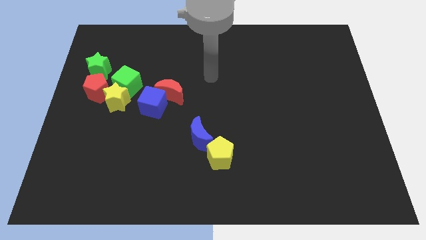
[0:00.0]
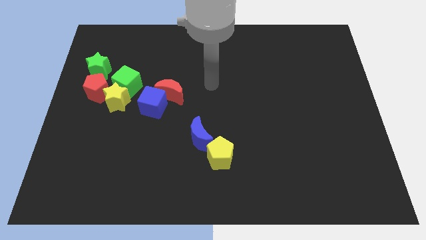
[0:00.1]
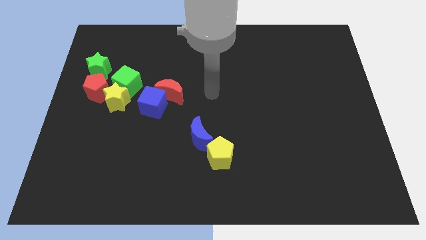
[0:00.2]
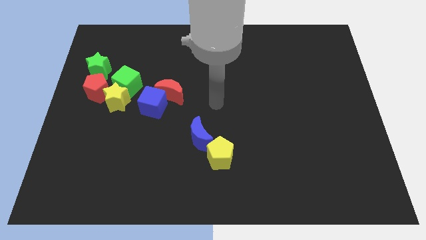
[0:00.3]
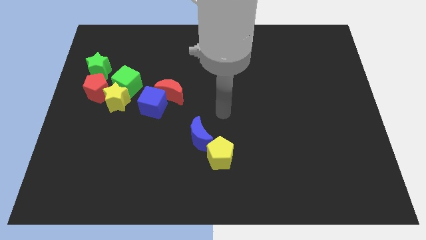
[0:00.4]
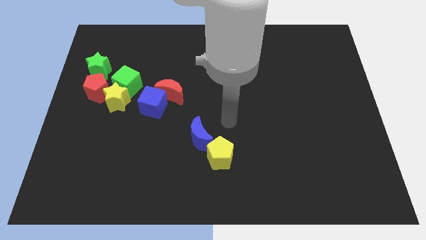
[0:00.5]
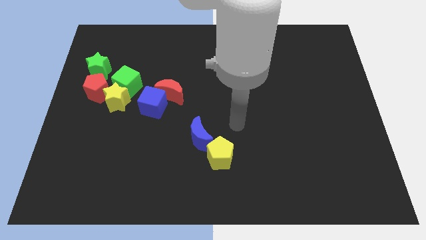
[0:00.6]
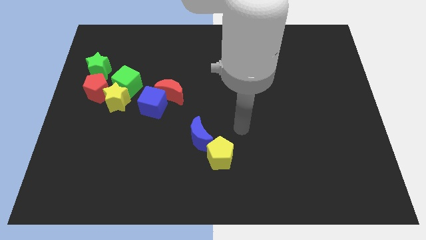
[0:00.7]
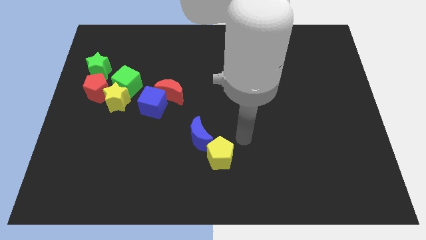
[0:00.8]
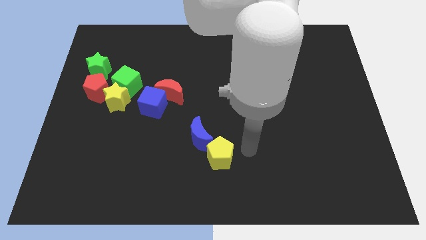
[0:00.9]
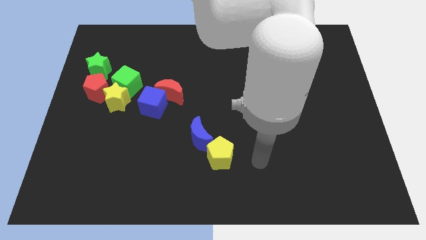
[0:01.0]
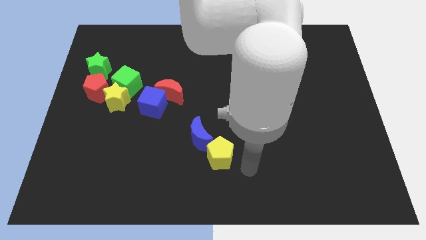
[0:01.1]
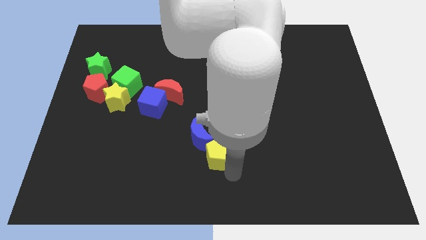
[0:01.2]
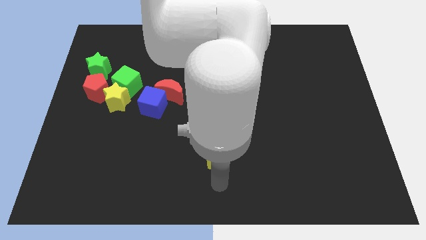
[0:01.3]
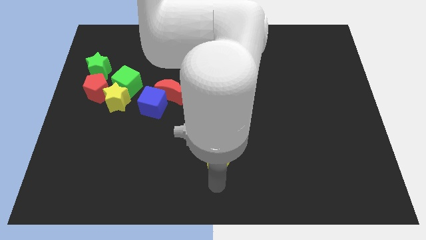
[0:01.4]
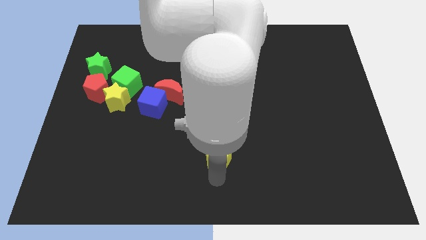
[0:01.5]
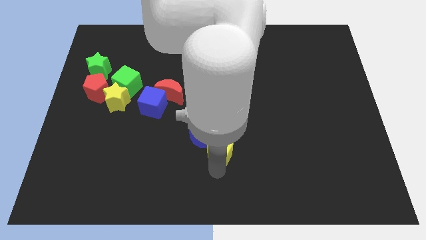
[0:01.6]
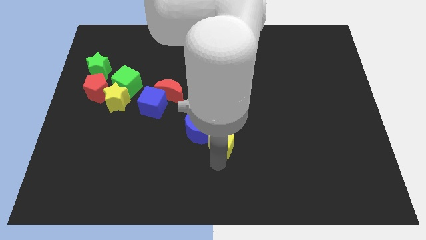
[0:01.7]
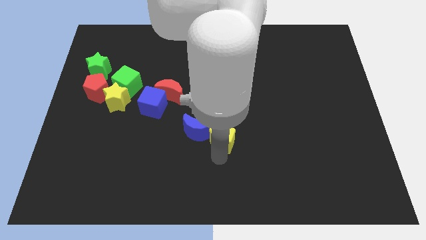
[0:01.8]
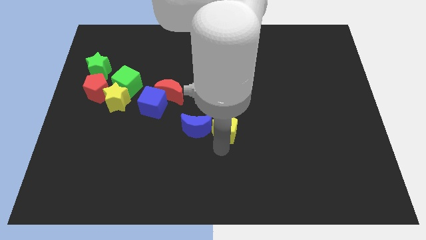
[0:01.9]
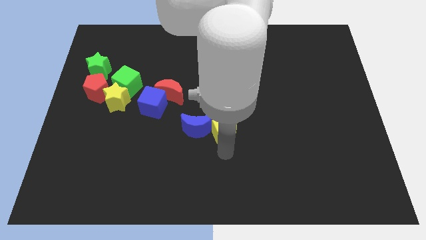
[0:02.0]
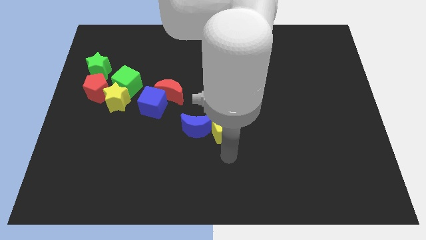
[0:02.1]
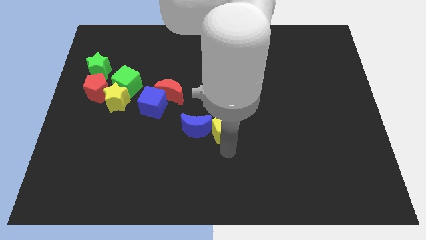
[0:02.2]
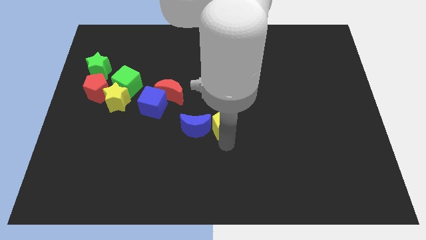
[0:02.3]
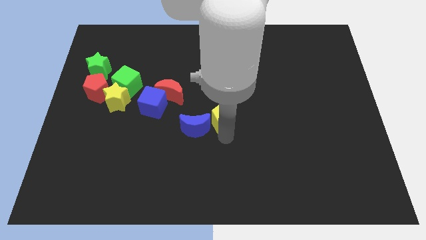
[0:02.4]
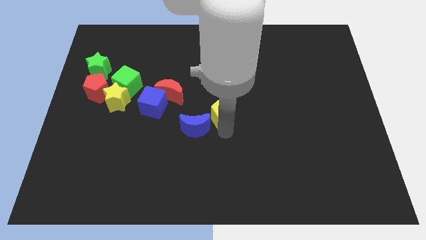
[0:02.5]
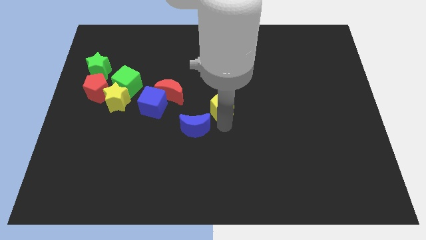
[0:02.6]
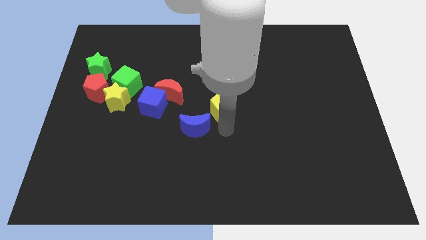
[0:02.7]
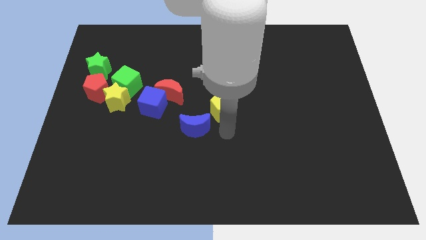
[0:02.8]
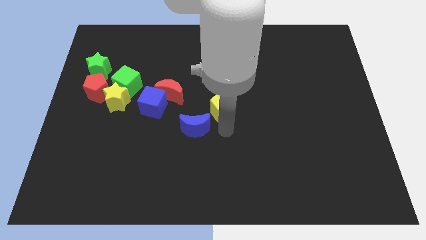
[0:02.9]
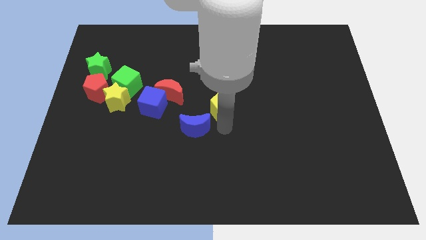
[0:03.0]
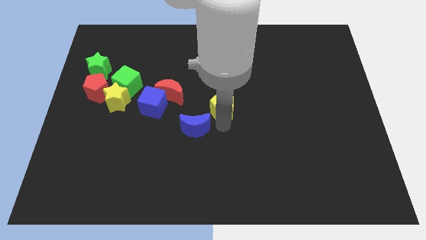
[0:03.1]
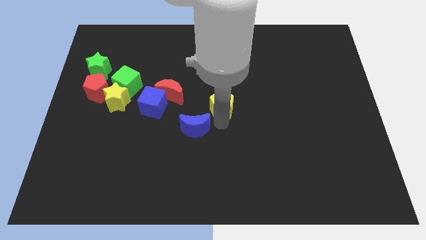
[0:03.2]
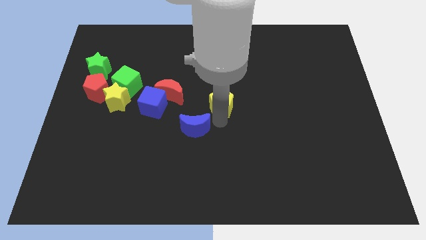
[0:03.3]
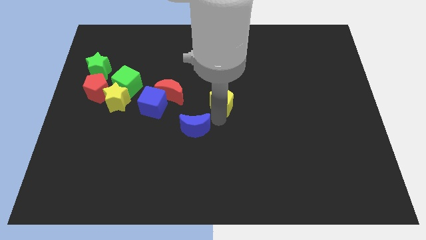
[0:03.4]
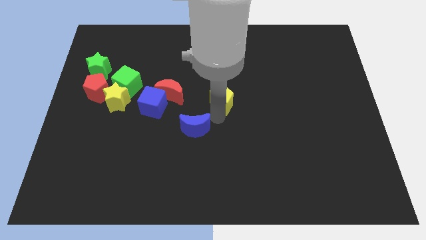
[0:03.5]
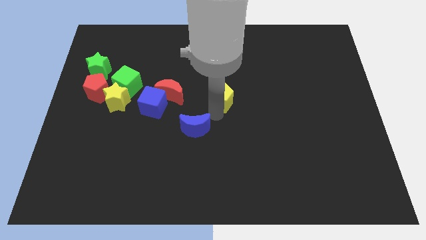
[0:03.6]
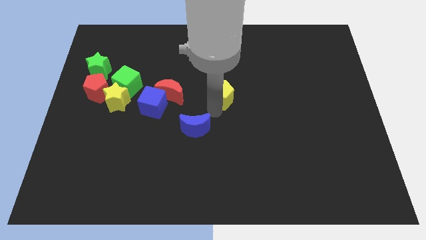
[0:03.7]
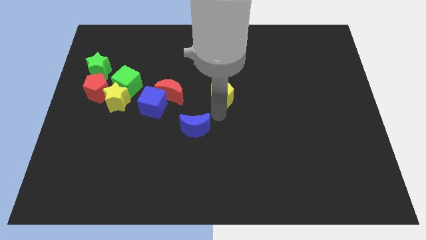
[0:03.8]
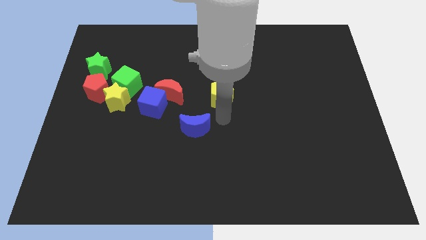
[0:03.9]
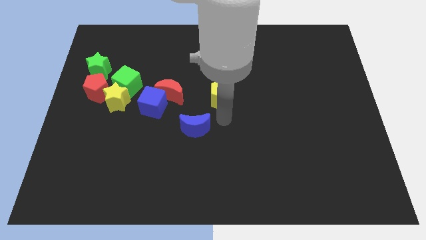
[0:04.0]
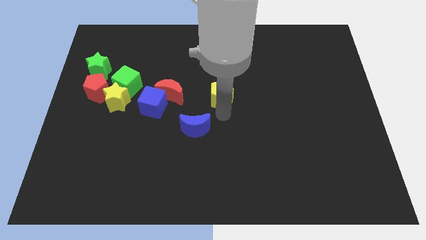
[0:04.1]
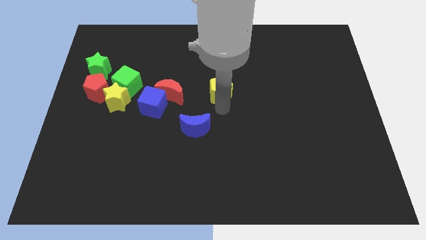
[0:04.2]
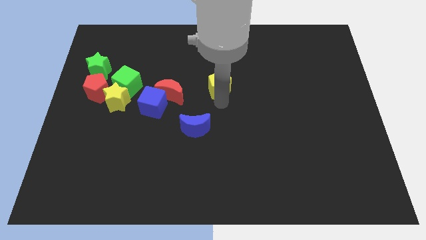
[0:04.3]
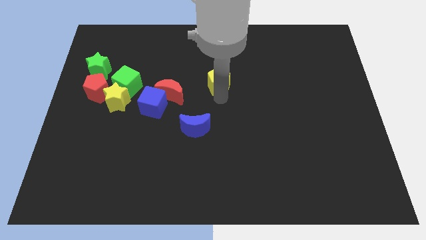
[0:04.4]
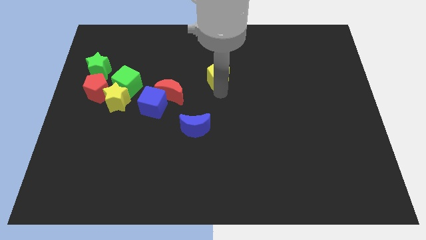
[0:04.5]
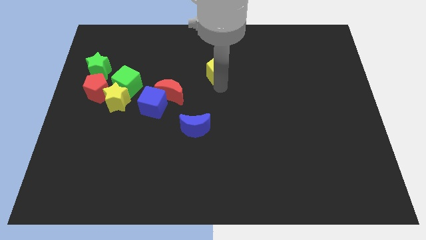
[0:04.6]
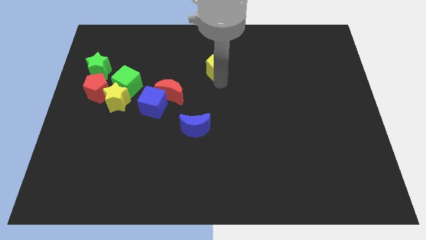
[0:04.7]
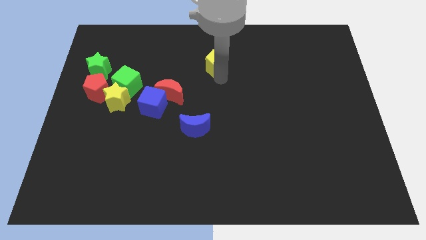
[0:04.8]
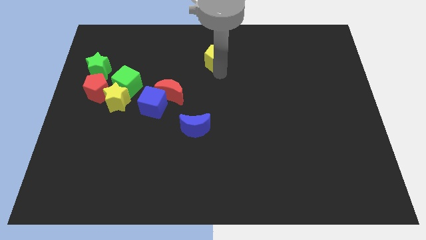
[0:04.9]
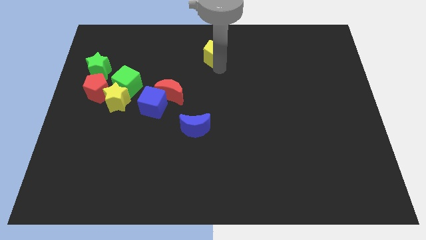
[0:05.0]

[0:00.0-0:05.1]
push the yellow pentagon to the top side

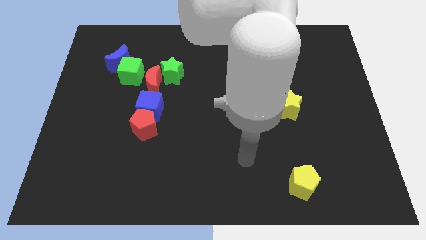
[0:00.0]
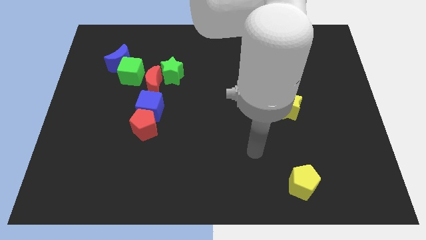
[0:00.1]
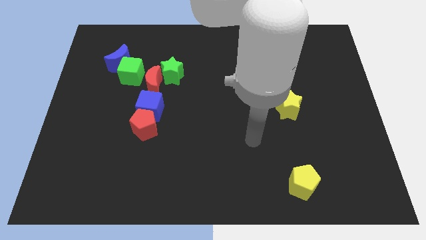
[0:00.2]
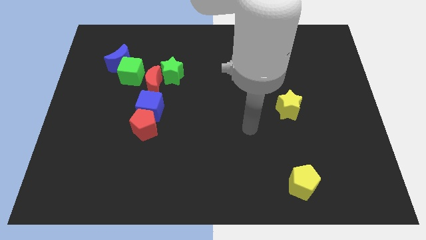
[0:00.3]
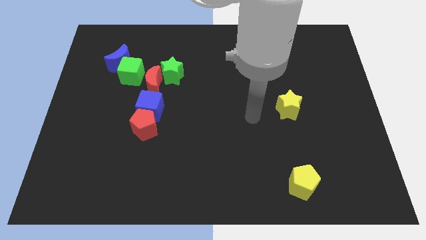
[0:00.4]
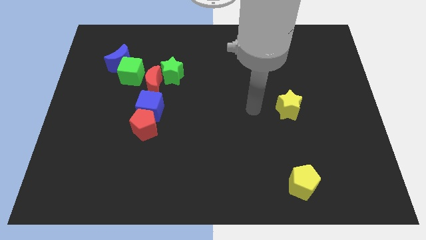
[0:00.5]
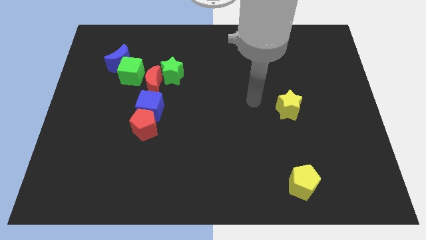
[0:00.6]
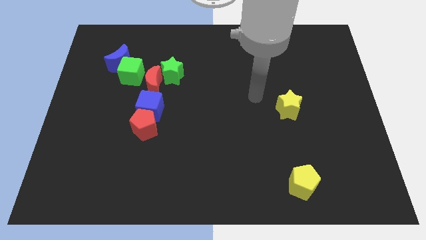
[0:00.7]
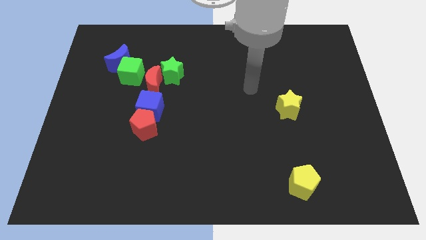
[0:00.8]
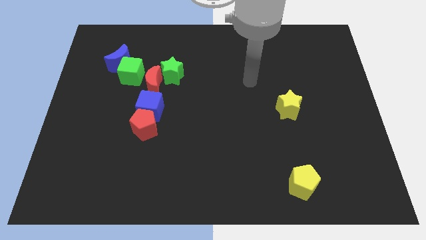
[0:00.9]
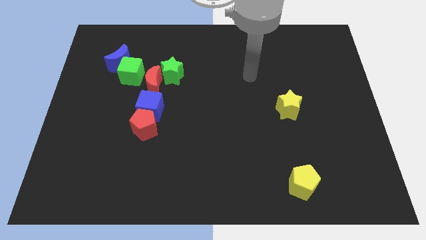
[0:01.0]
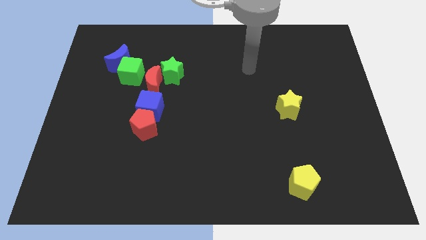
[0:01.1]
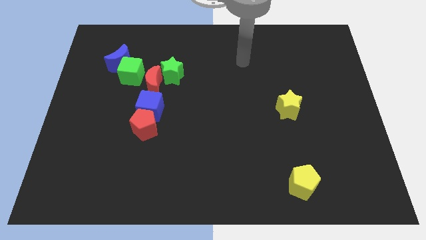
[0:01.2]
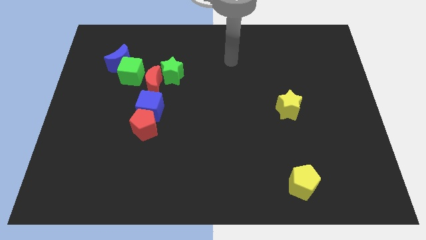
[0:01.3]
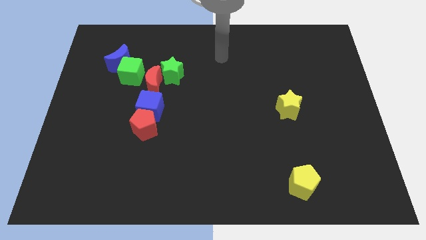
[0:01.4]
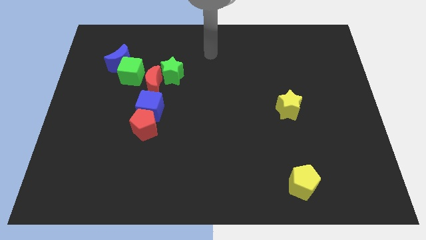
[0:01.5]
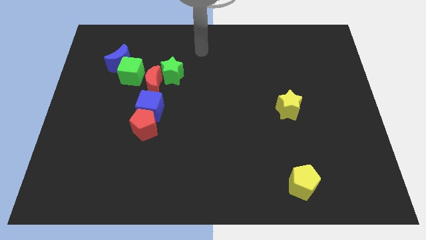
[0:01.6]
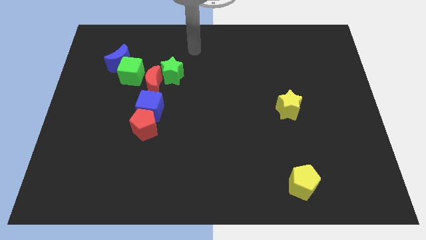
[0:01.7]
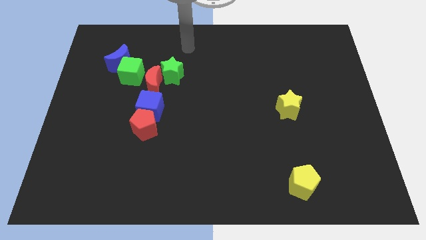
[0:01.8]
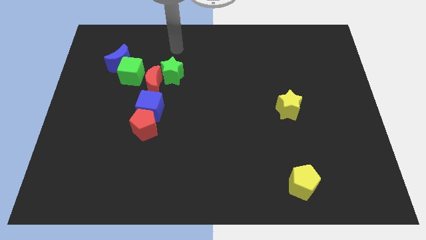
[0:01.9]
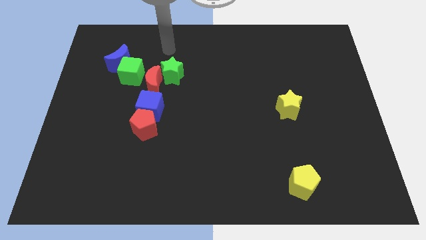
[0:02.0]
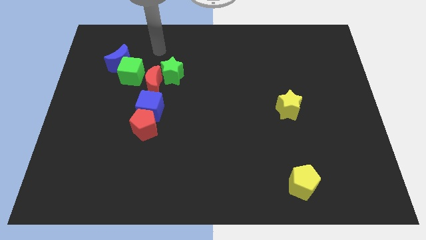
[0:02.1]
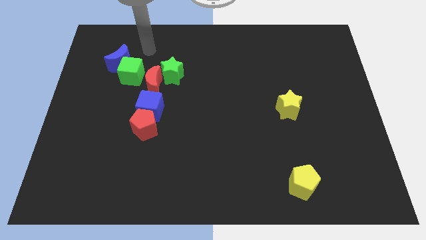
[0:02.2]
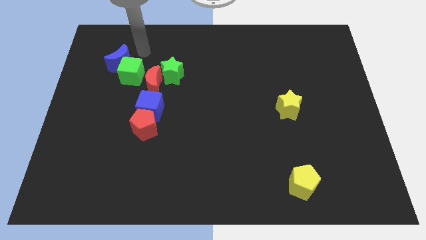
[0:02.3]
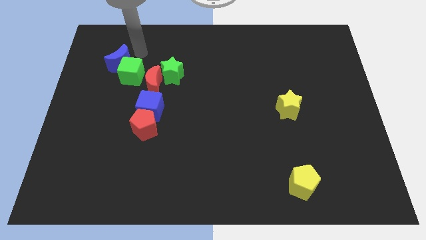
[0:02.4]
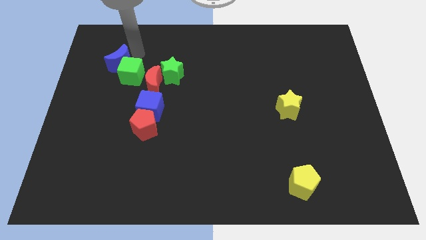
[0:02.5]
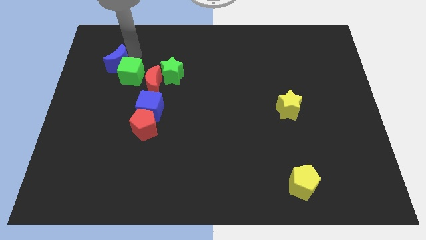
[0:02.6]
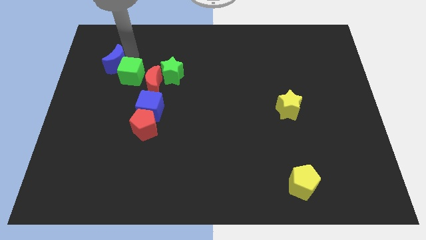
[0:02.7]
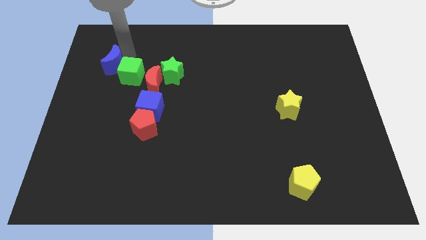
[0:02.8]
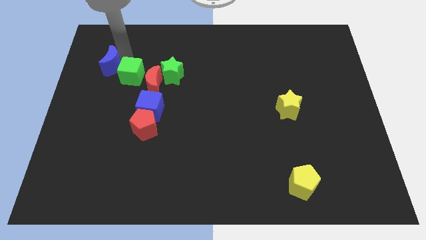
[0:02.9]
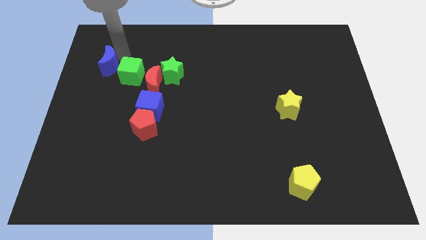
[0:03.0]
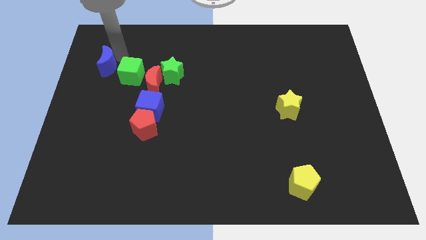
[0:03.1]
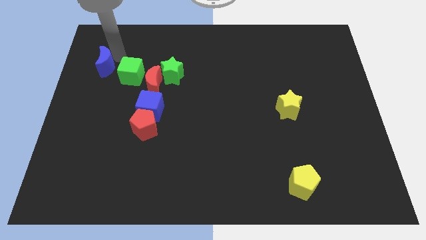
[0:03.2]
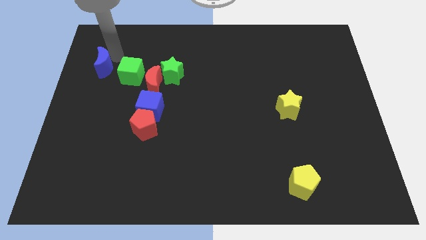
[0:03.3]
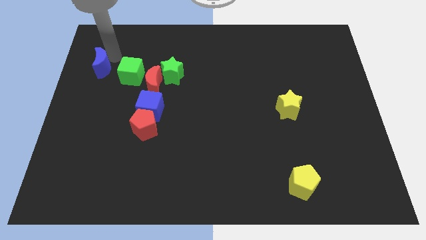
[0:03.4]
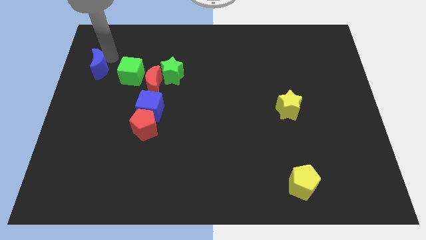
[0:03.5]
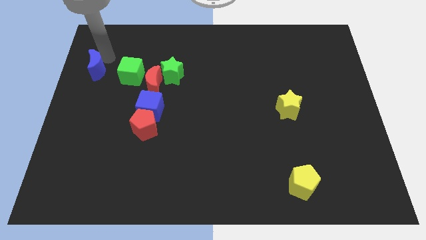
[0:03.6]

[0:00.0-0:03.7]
slide the blue moon to the center left
